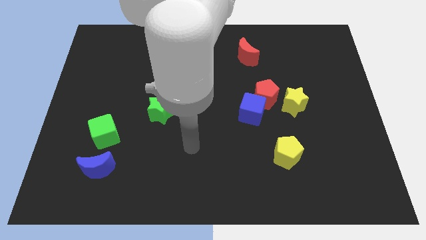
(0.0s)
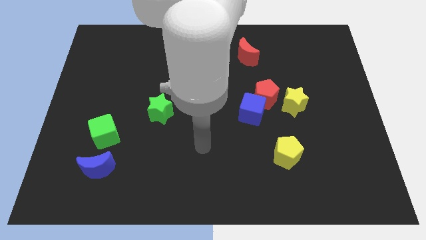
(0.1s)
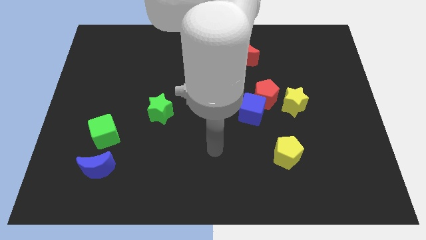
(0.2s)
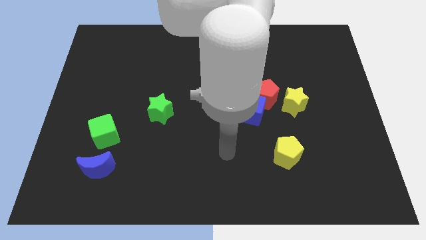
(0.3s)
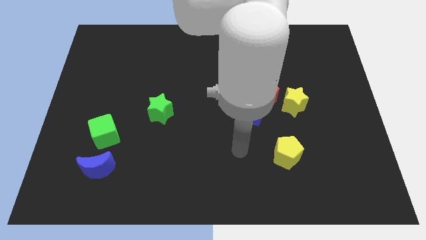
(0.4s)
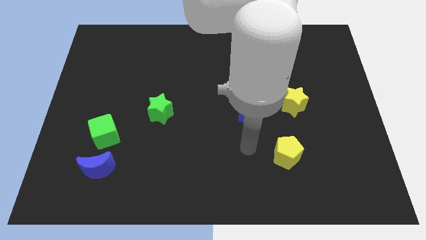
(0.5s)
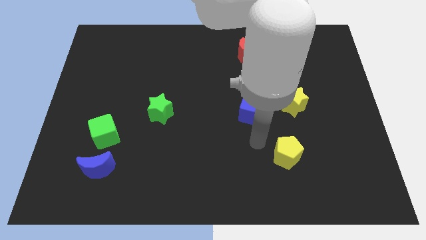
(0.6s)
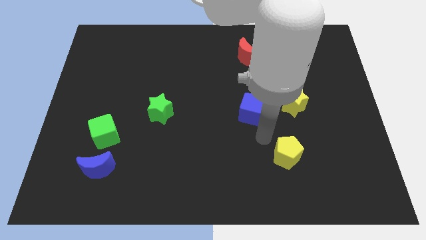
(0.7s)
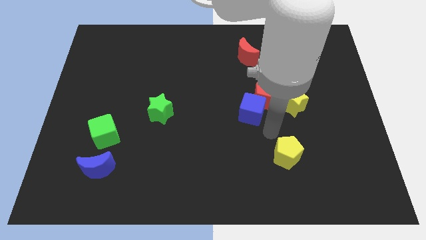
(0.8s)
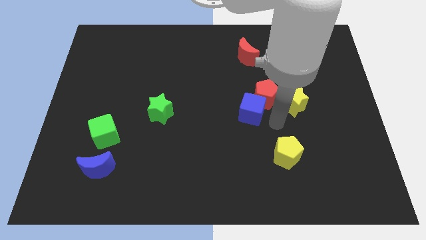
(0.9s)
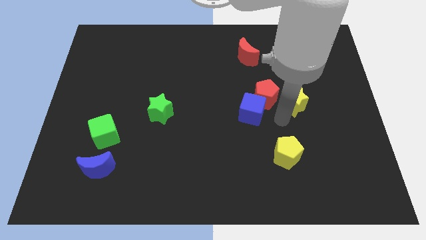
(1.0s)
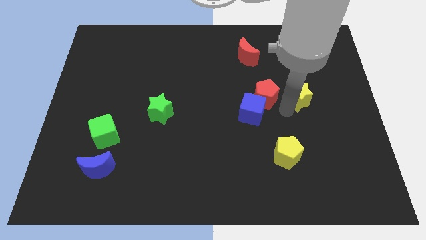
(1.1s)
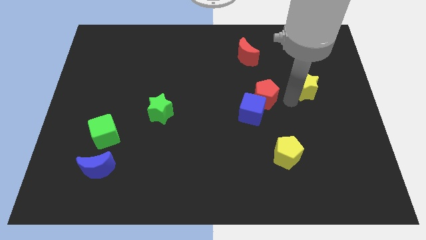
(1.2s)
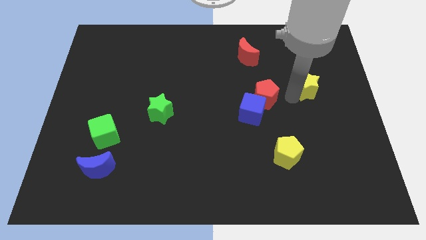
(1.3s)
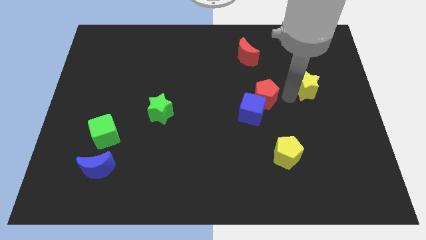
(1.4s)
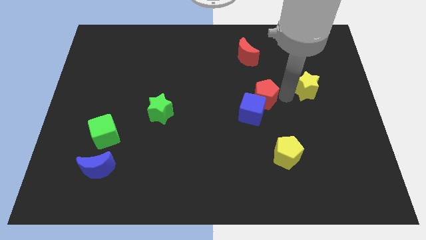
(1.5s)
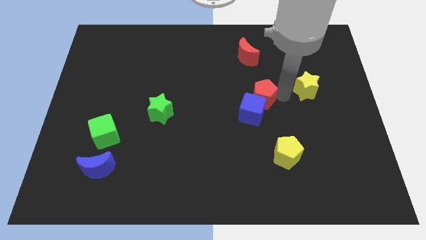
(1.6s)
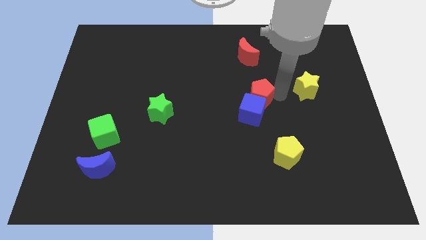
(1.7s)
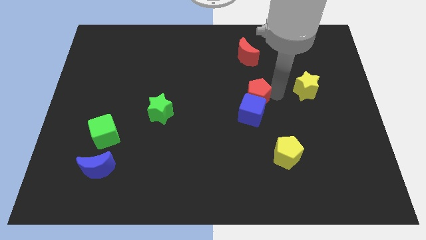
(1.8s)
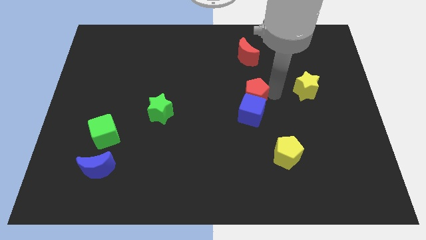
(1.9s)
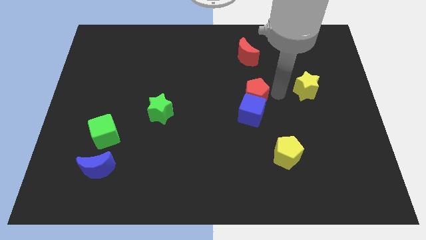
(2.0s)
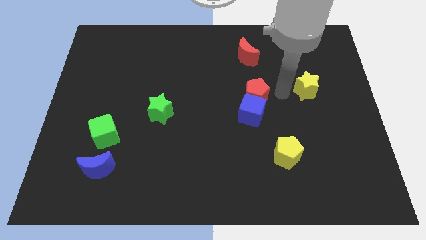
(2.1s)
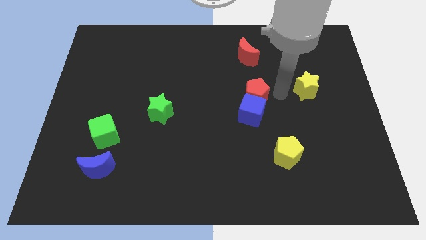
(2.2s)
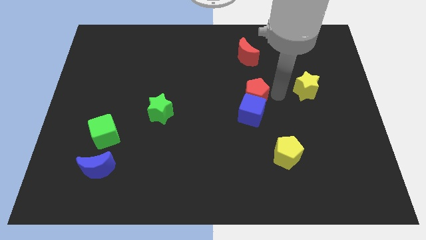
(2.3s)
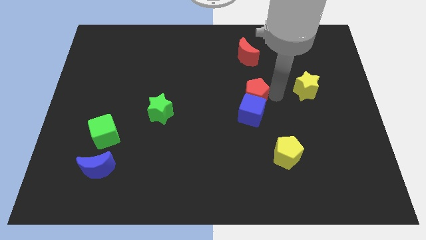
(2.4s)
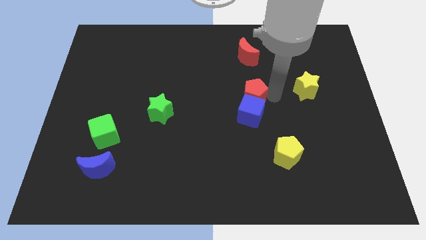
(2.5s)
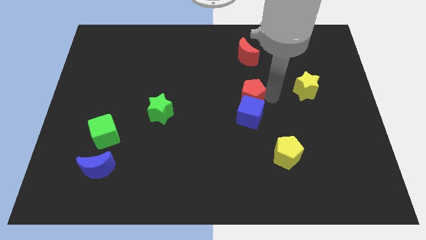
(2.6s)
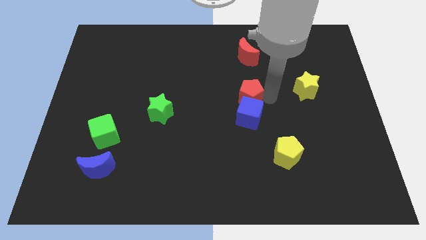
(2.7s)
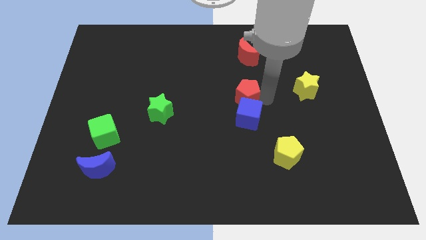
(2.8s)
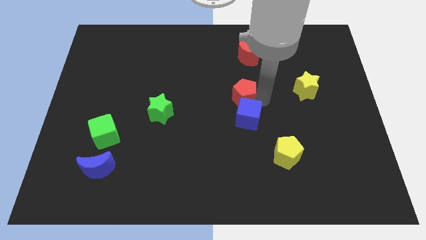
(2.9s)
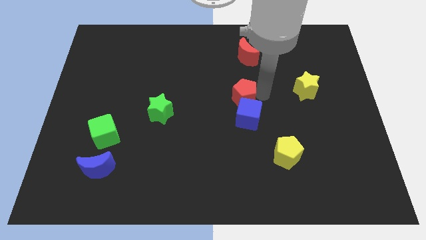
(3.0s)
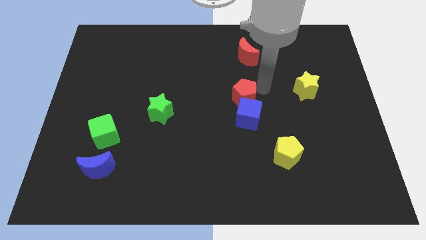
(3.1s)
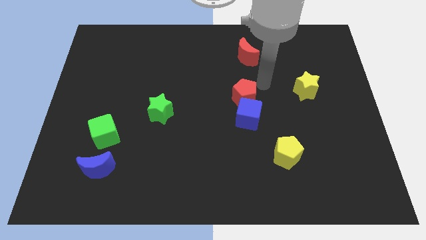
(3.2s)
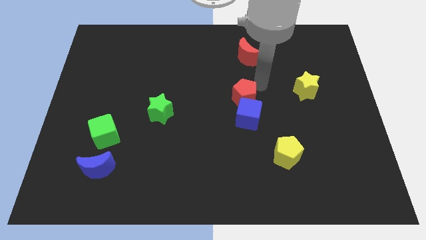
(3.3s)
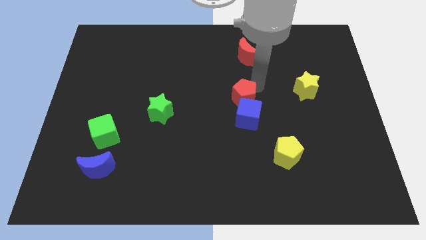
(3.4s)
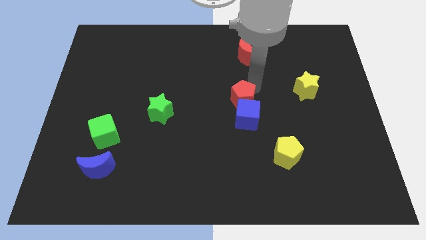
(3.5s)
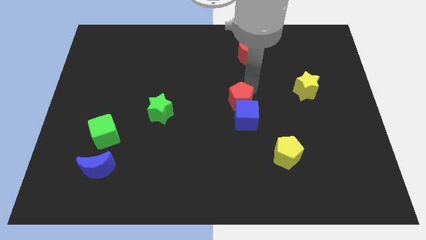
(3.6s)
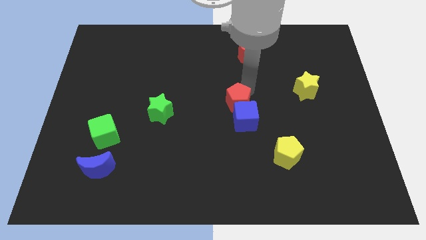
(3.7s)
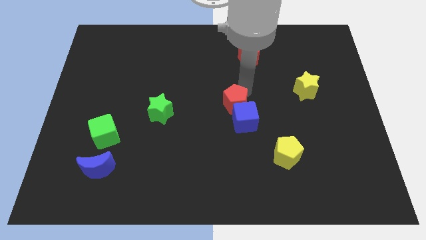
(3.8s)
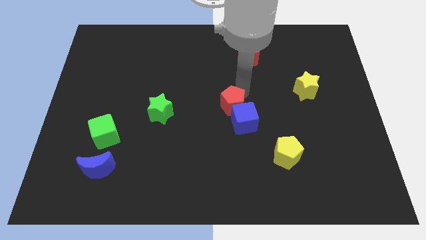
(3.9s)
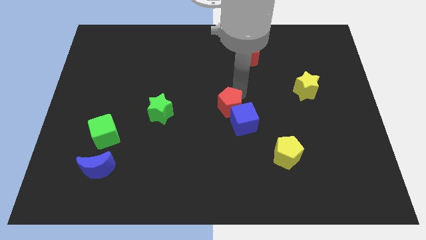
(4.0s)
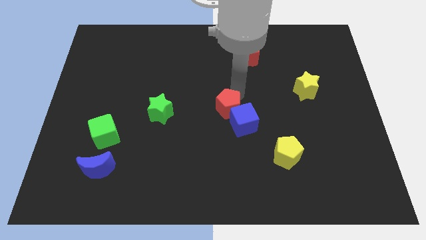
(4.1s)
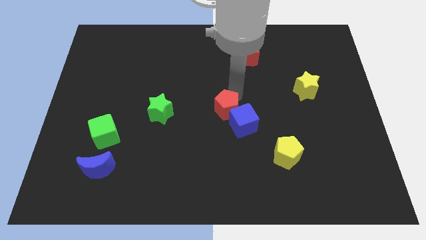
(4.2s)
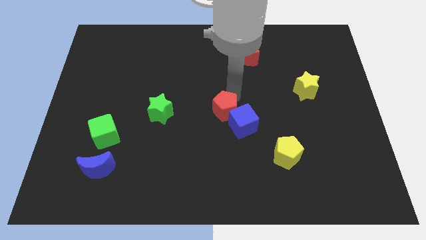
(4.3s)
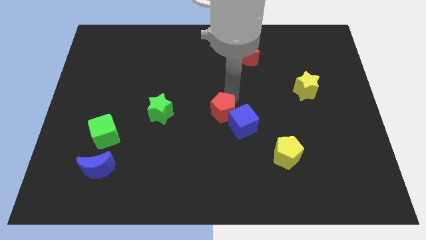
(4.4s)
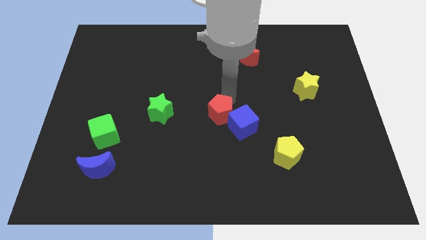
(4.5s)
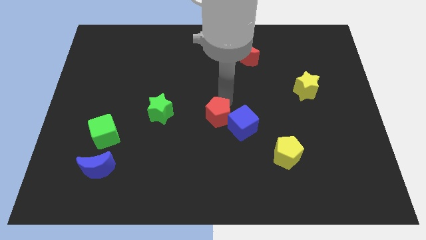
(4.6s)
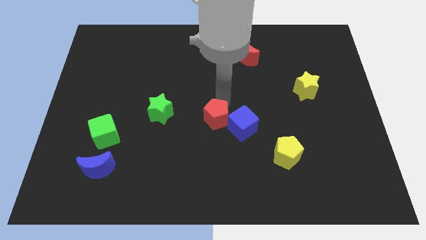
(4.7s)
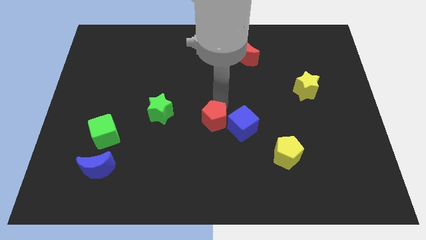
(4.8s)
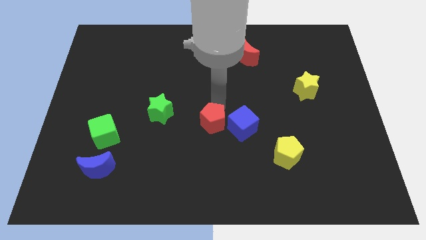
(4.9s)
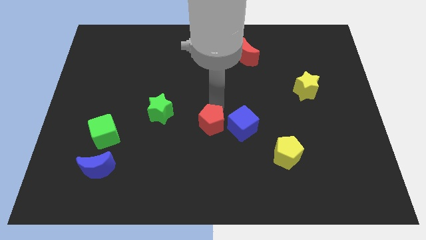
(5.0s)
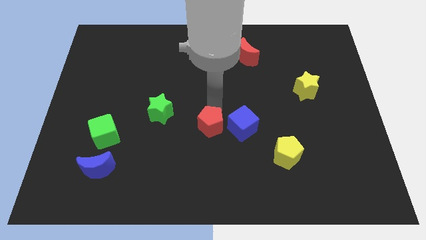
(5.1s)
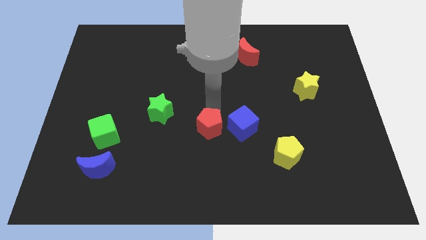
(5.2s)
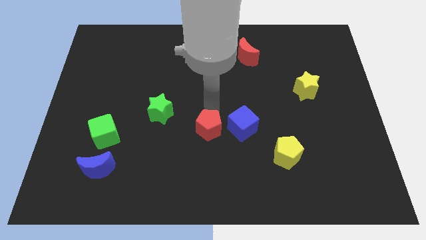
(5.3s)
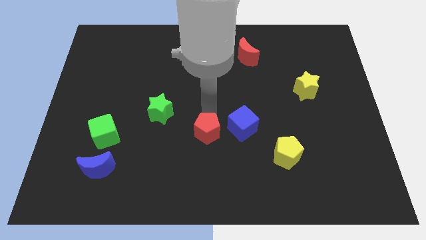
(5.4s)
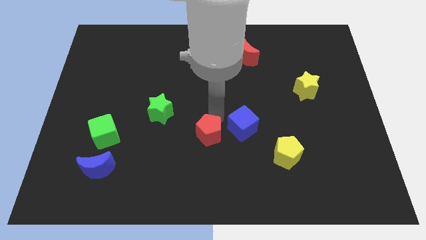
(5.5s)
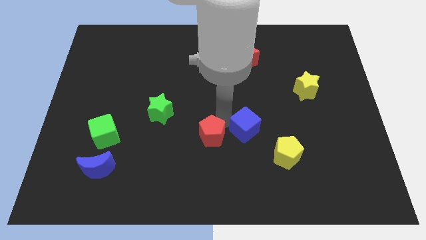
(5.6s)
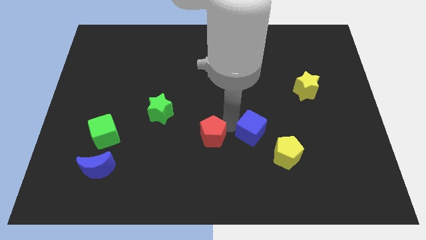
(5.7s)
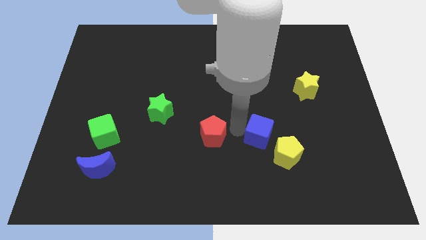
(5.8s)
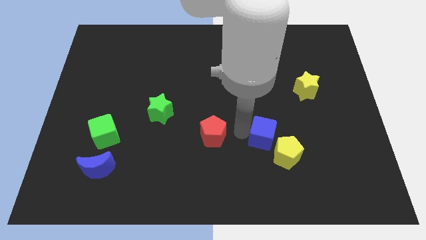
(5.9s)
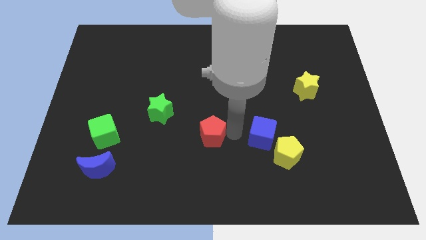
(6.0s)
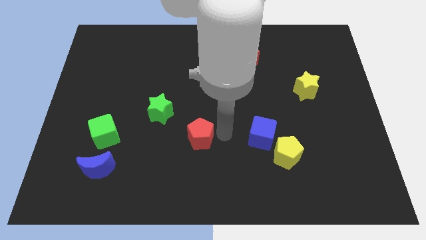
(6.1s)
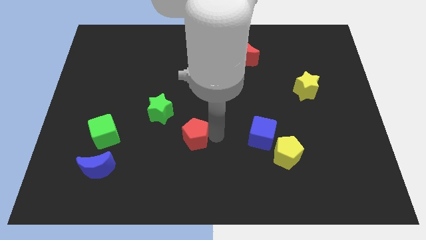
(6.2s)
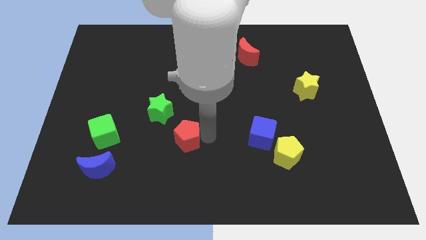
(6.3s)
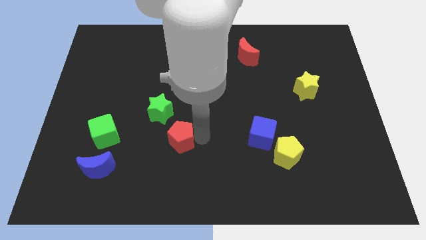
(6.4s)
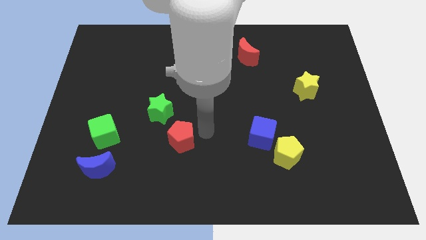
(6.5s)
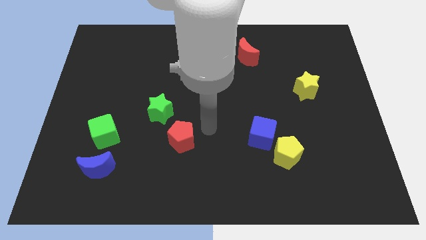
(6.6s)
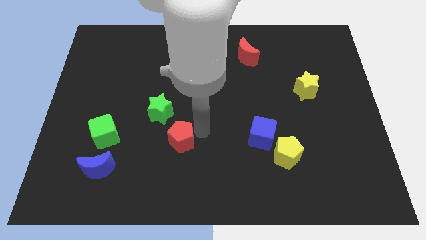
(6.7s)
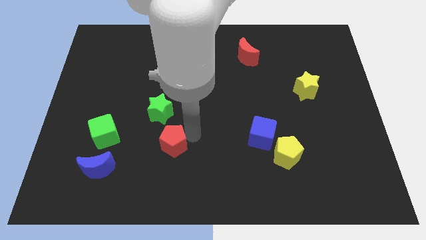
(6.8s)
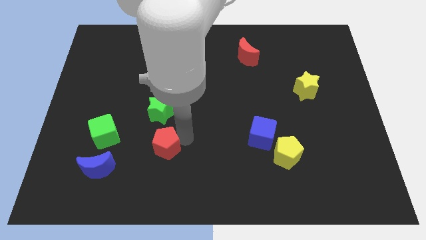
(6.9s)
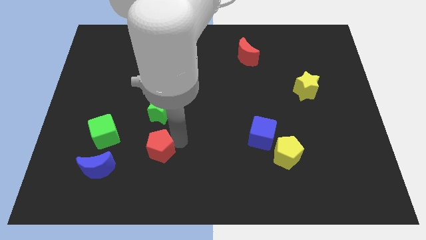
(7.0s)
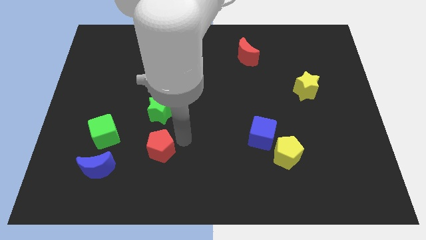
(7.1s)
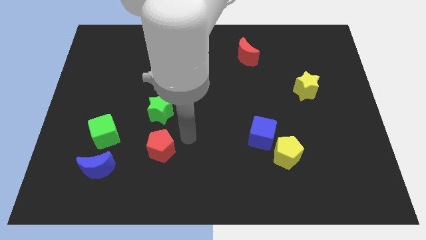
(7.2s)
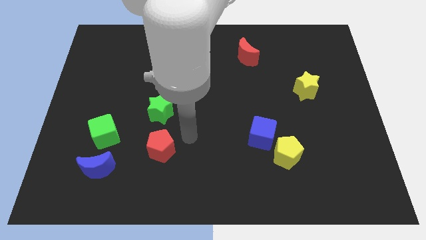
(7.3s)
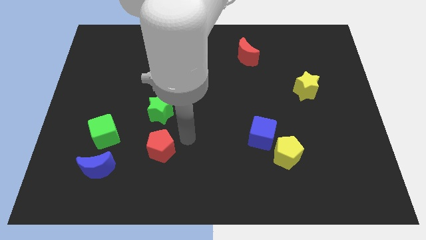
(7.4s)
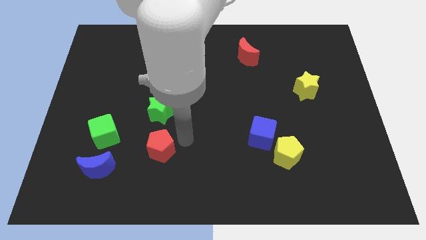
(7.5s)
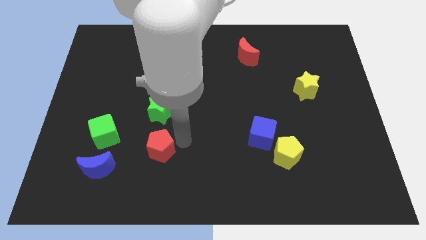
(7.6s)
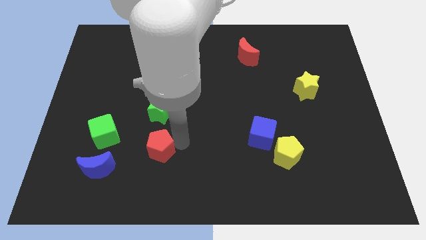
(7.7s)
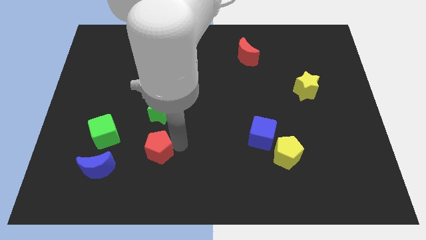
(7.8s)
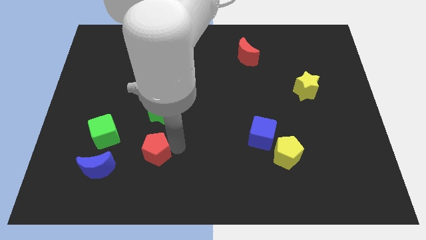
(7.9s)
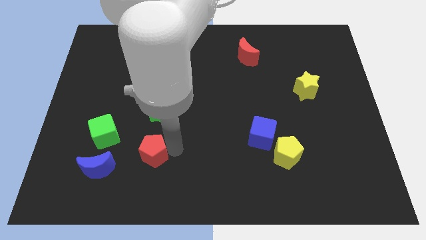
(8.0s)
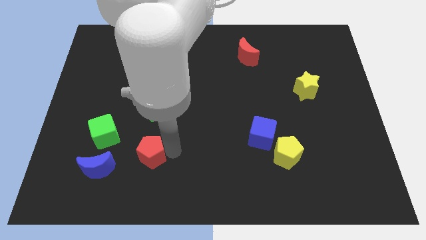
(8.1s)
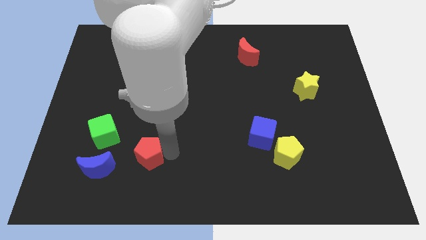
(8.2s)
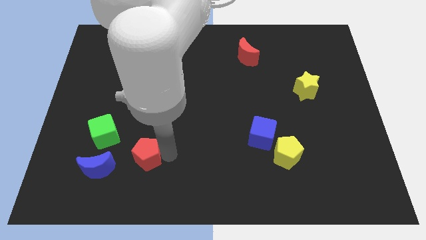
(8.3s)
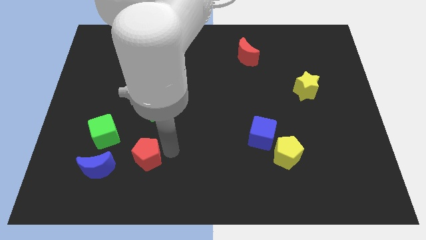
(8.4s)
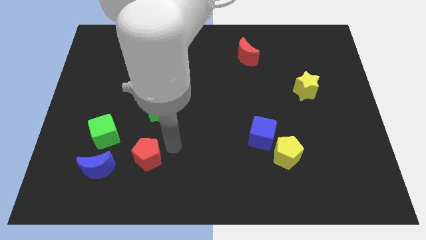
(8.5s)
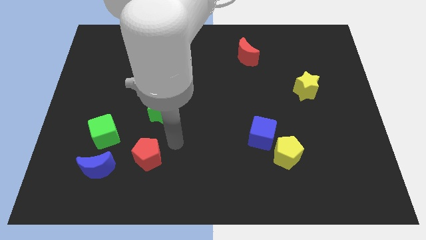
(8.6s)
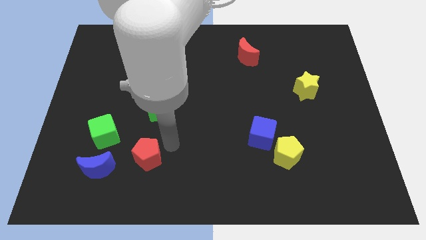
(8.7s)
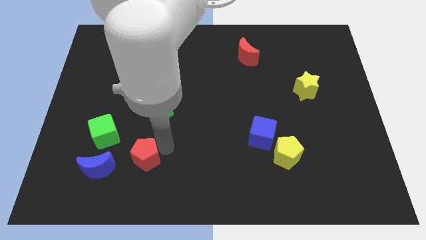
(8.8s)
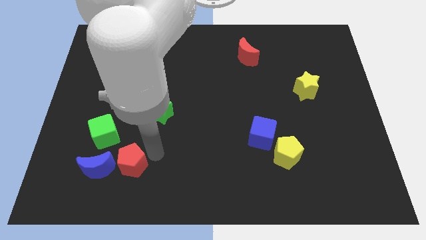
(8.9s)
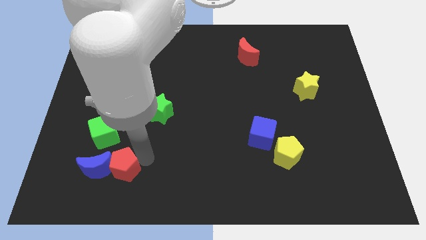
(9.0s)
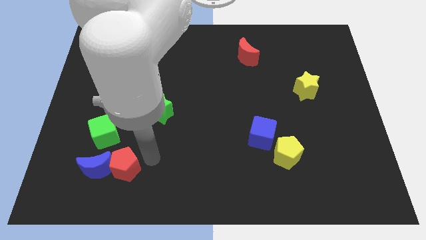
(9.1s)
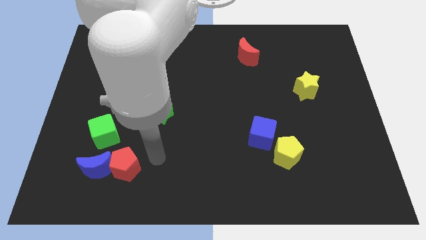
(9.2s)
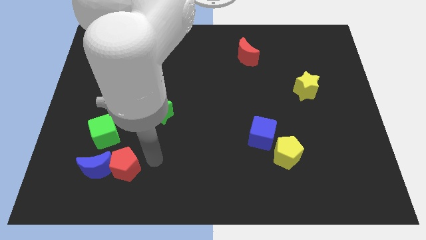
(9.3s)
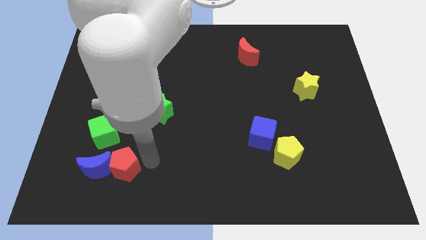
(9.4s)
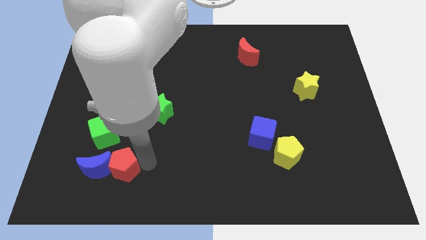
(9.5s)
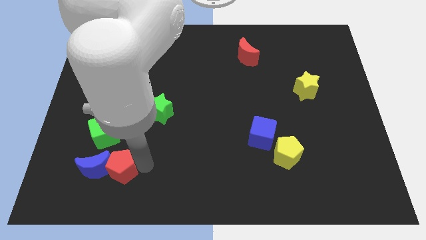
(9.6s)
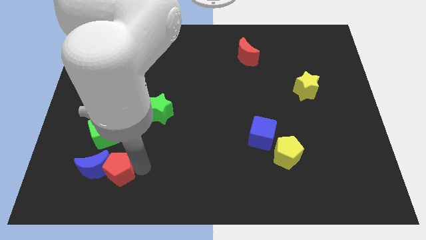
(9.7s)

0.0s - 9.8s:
put the red pentagon to the bottom side of the green cube
